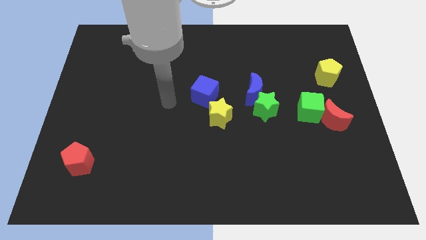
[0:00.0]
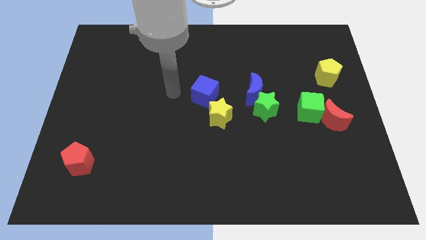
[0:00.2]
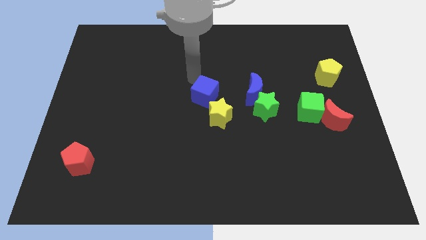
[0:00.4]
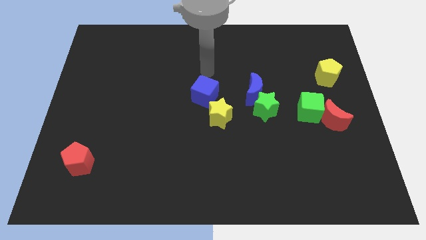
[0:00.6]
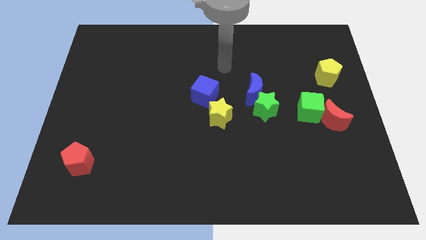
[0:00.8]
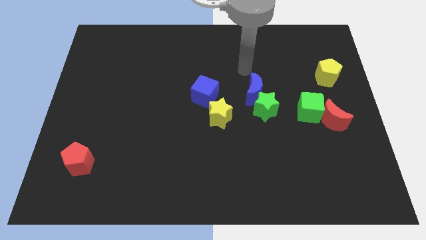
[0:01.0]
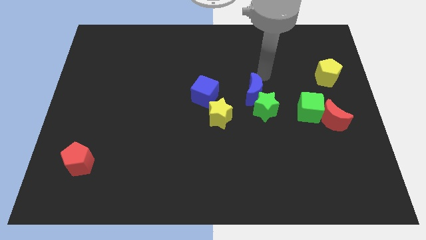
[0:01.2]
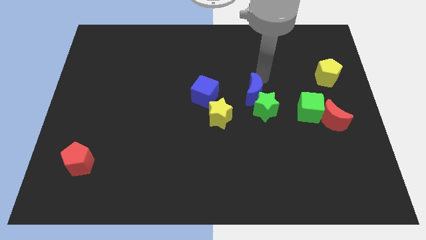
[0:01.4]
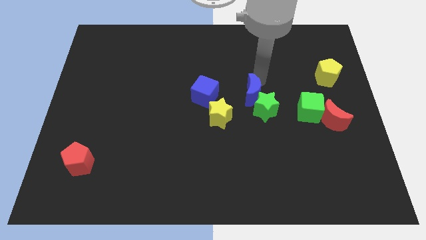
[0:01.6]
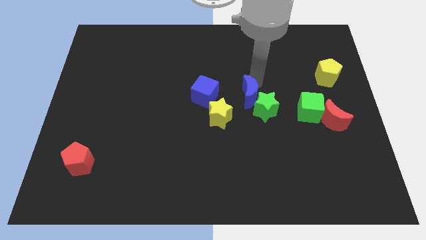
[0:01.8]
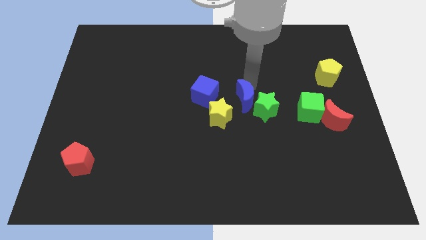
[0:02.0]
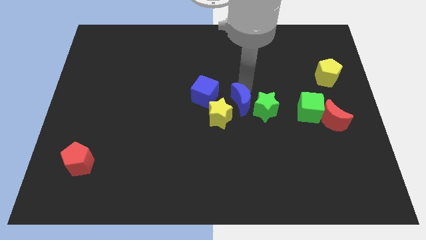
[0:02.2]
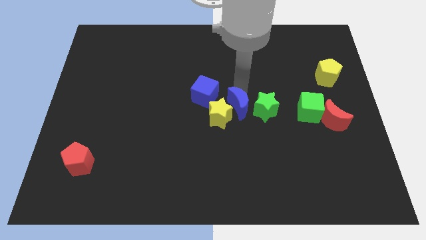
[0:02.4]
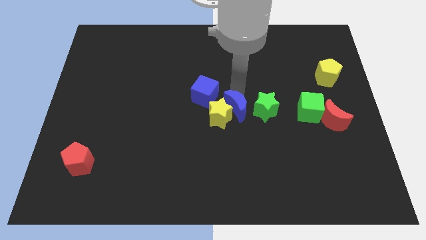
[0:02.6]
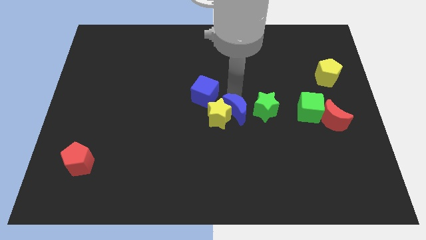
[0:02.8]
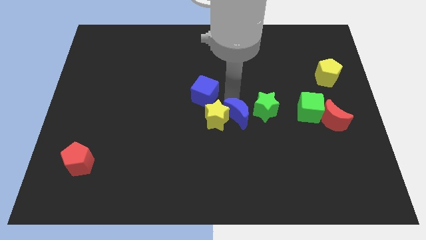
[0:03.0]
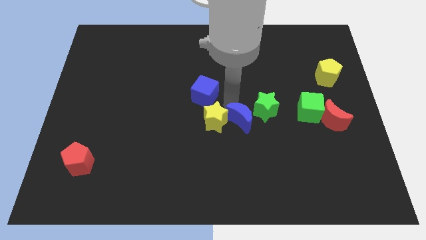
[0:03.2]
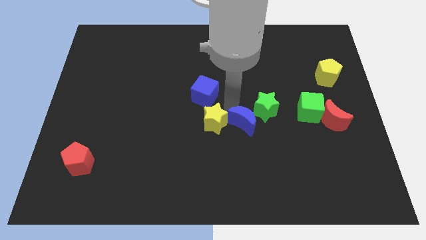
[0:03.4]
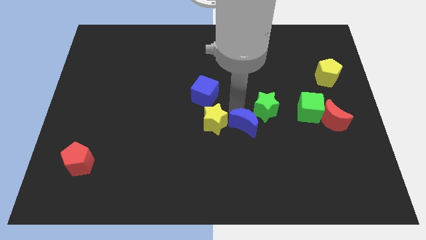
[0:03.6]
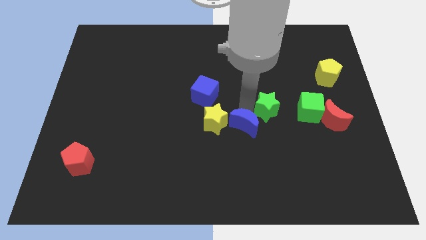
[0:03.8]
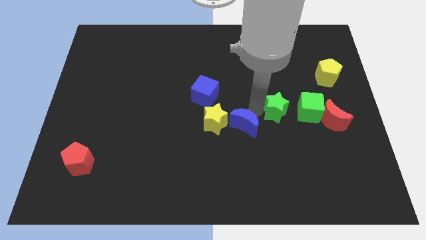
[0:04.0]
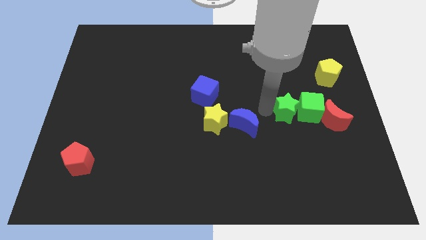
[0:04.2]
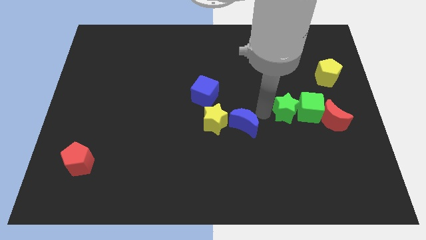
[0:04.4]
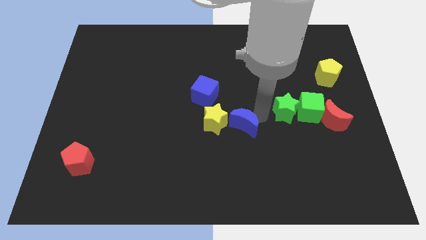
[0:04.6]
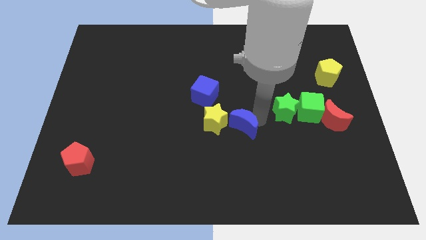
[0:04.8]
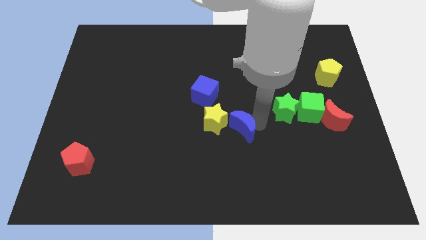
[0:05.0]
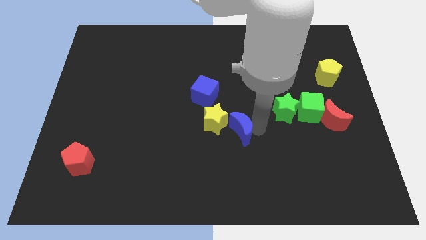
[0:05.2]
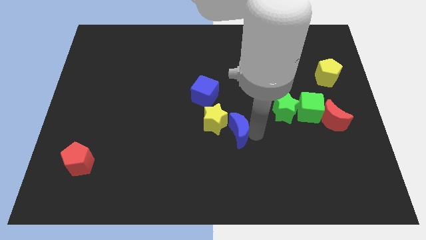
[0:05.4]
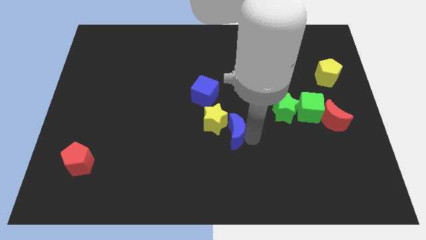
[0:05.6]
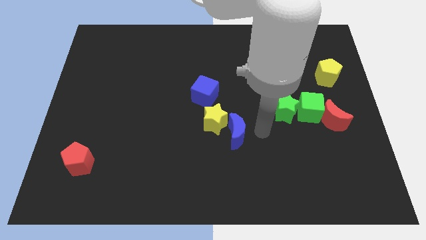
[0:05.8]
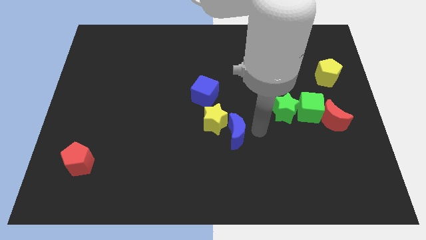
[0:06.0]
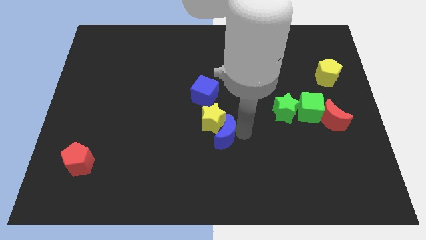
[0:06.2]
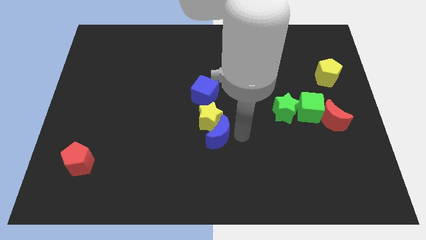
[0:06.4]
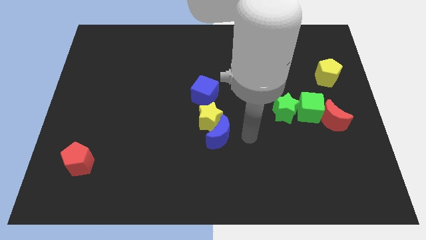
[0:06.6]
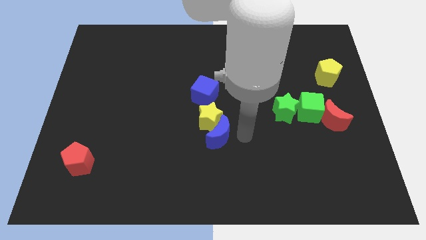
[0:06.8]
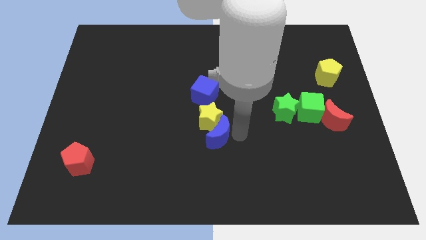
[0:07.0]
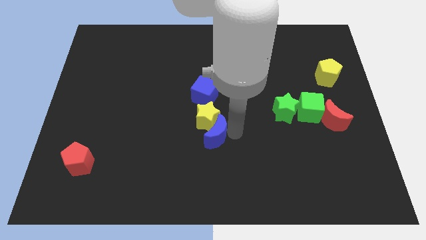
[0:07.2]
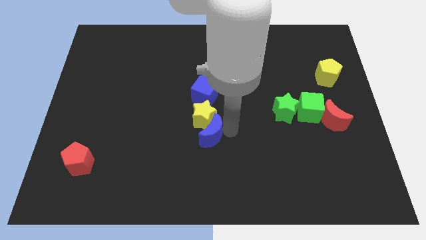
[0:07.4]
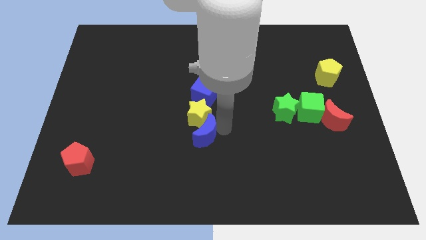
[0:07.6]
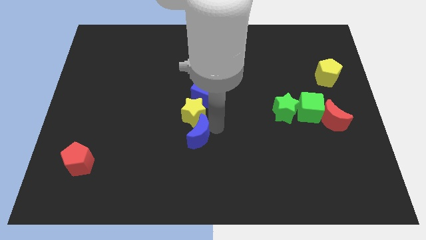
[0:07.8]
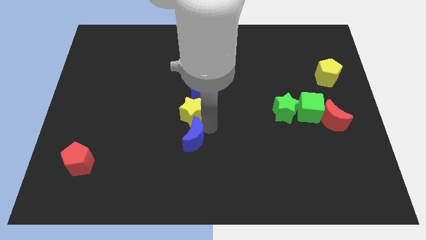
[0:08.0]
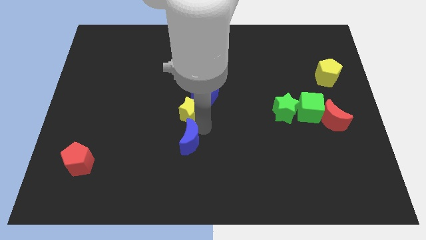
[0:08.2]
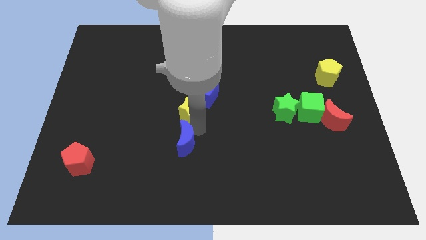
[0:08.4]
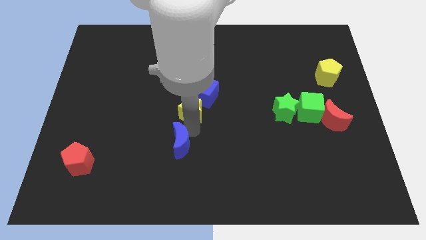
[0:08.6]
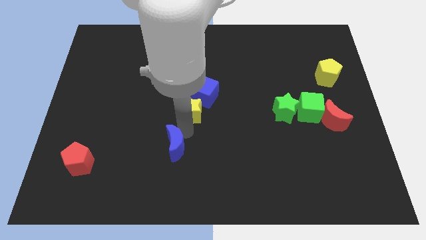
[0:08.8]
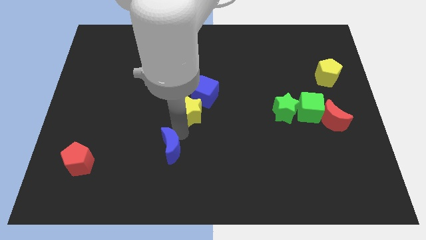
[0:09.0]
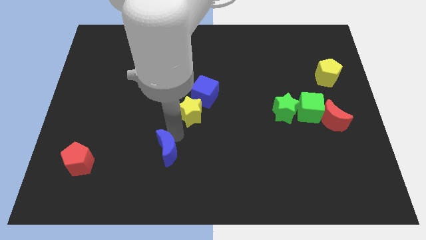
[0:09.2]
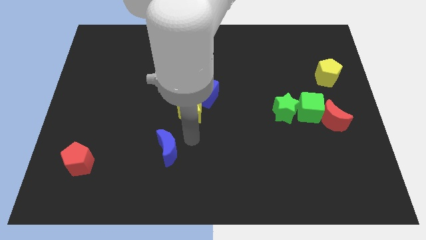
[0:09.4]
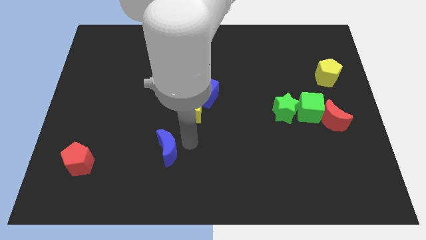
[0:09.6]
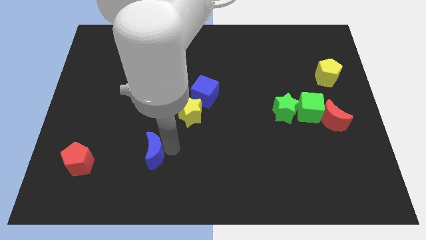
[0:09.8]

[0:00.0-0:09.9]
put the blue moon to the right side of the red pentagon

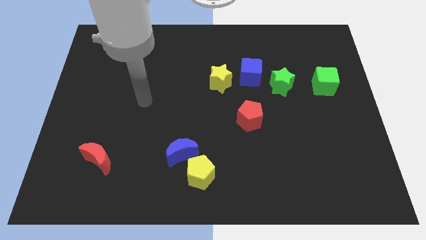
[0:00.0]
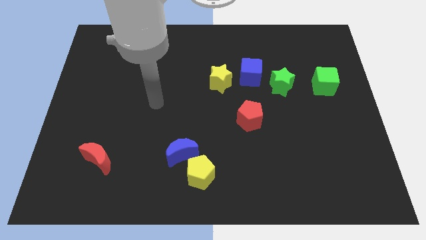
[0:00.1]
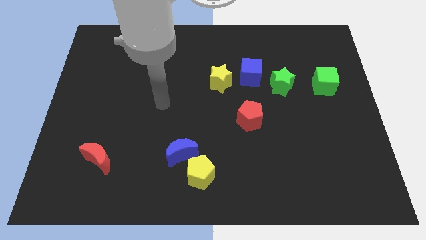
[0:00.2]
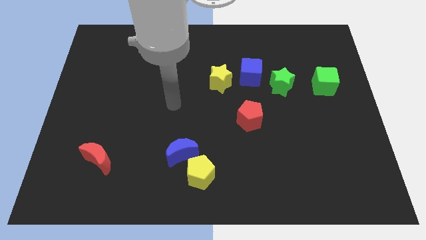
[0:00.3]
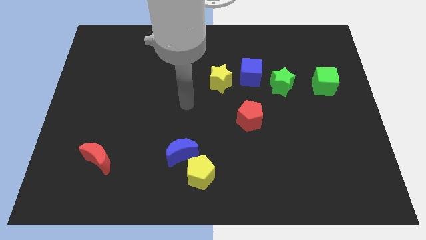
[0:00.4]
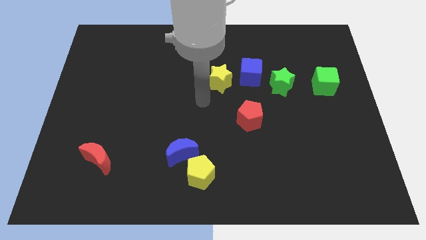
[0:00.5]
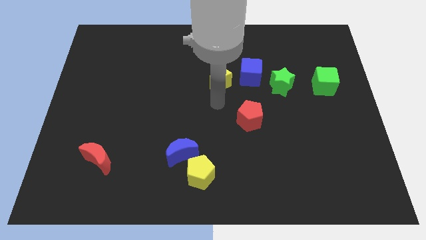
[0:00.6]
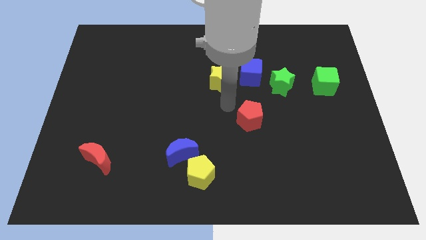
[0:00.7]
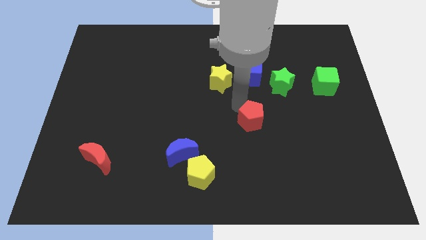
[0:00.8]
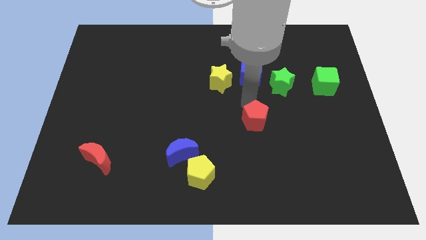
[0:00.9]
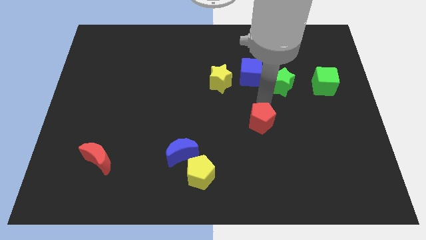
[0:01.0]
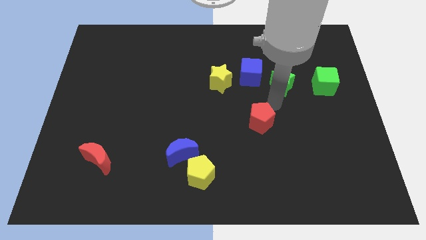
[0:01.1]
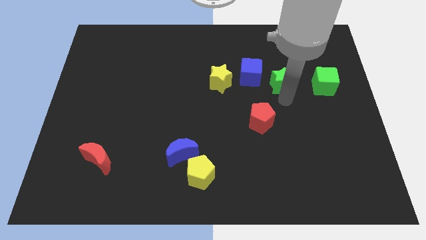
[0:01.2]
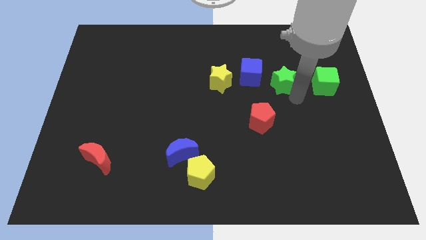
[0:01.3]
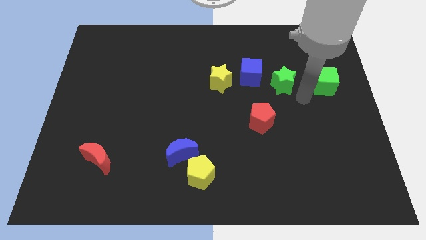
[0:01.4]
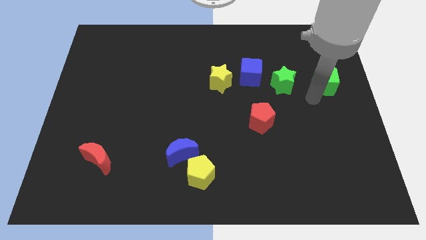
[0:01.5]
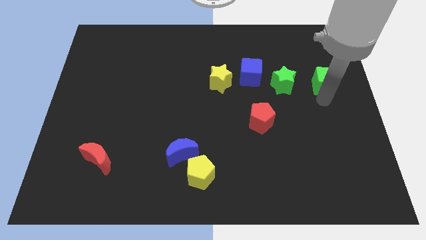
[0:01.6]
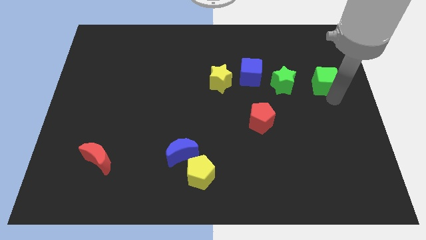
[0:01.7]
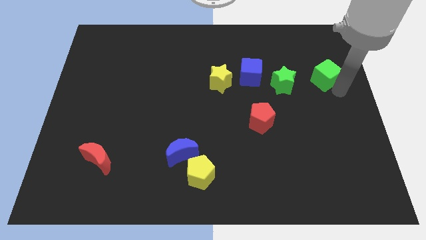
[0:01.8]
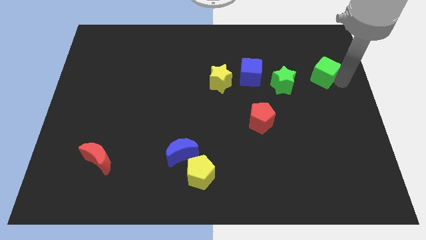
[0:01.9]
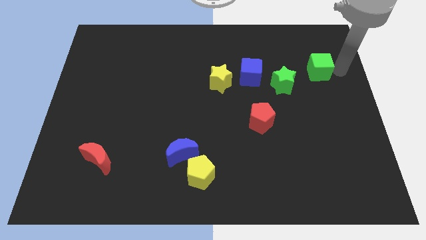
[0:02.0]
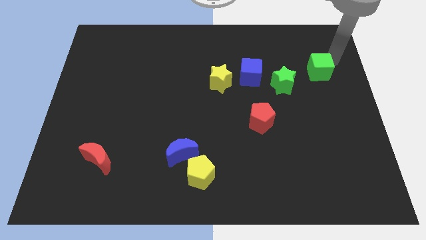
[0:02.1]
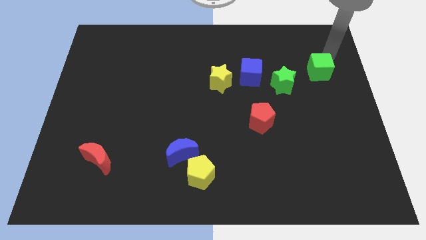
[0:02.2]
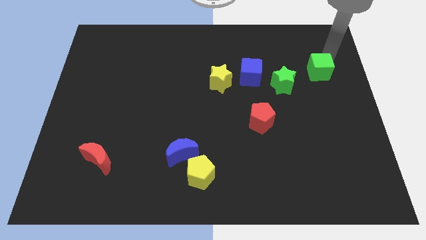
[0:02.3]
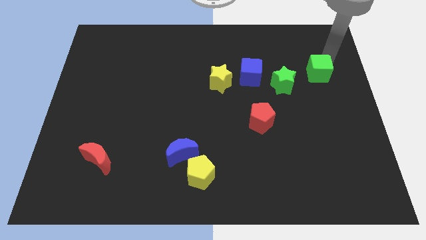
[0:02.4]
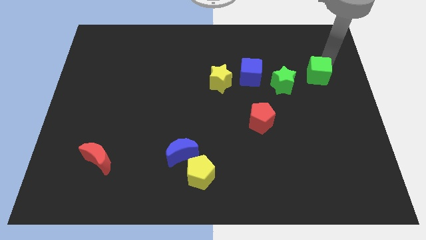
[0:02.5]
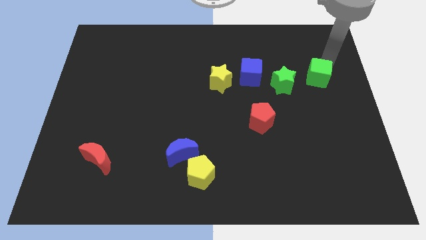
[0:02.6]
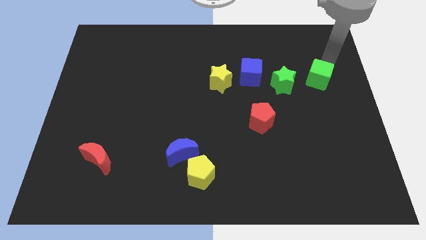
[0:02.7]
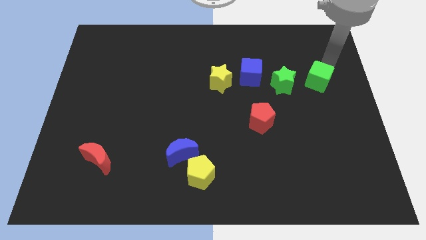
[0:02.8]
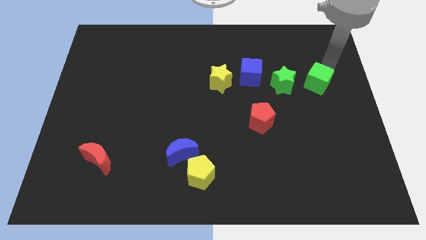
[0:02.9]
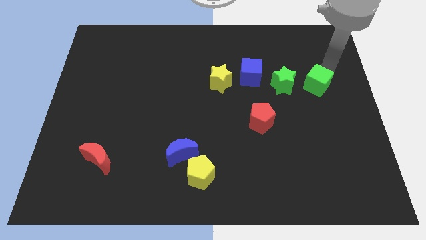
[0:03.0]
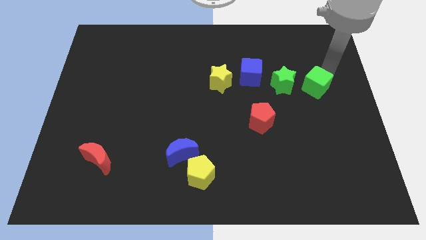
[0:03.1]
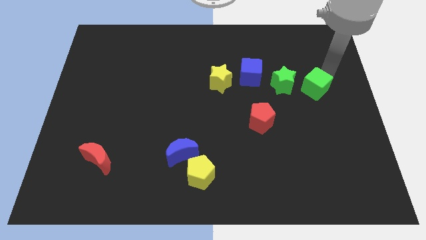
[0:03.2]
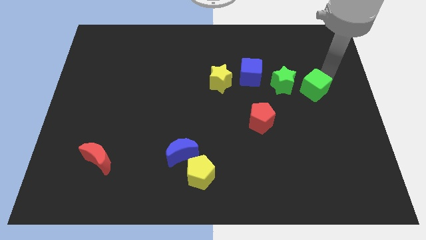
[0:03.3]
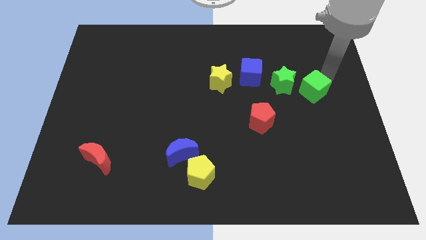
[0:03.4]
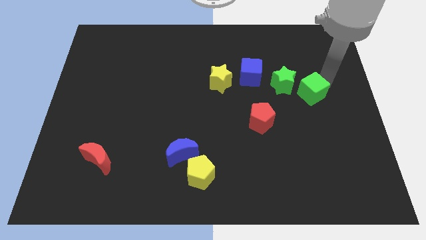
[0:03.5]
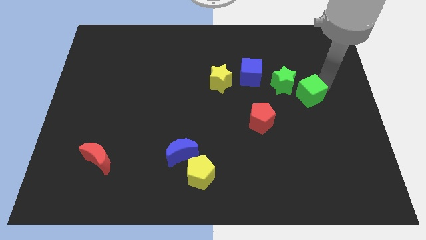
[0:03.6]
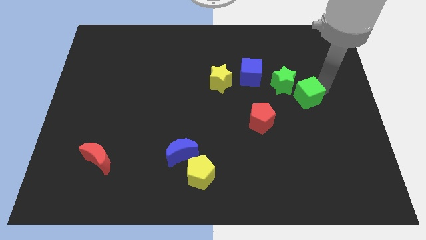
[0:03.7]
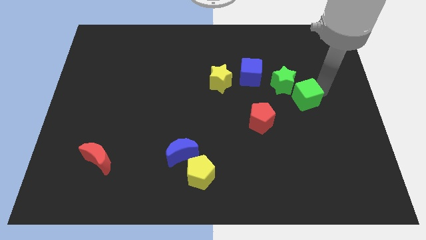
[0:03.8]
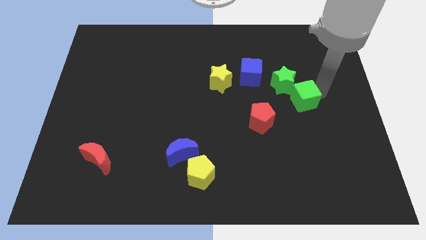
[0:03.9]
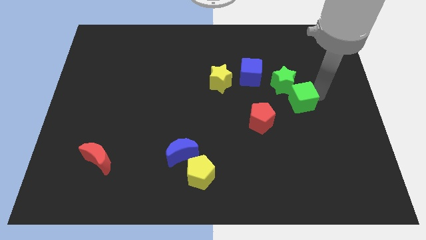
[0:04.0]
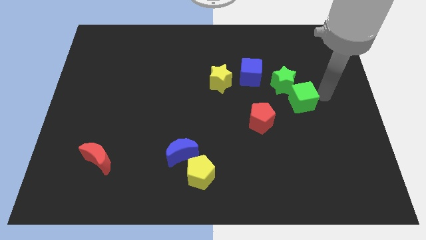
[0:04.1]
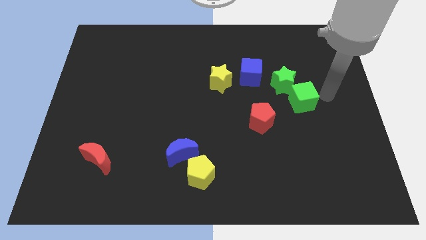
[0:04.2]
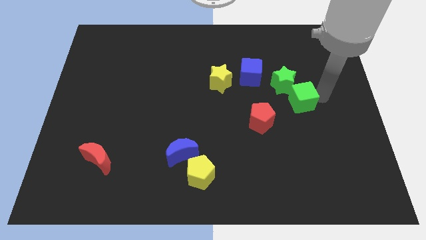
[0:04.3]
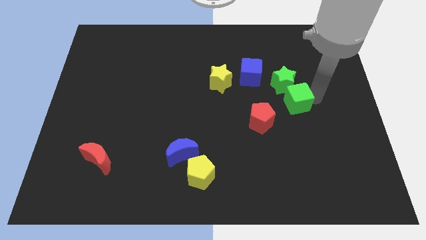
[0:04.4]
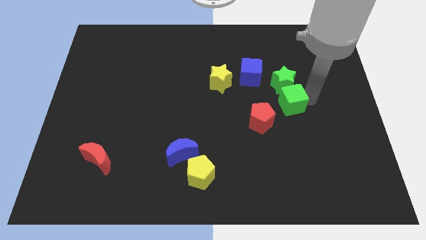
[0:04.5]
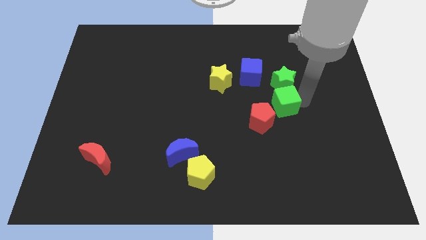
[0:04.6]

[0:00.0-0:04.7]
move the green cube to the bottom left of the green star
